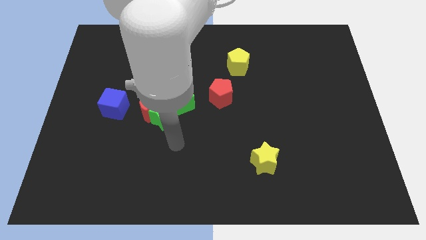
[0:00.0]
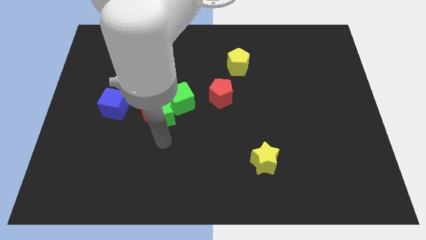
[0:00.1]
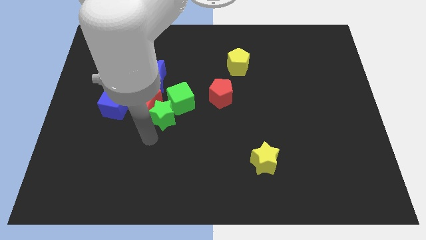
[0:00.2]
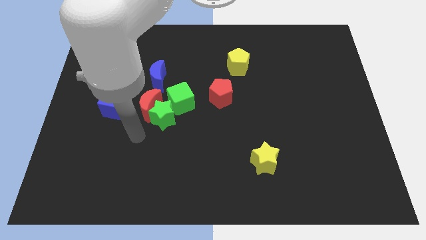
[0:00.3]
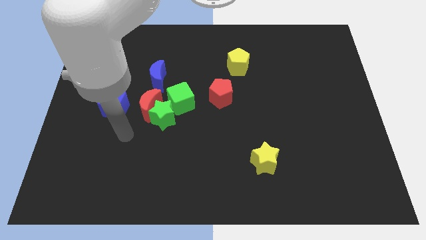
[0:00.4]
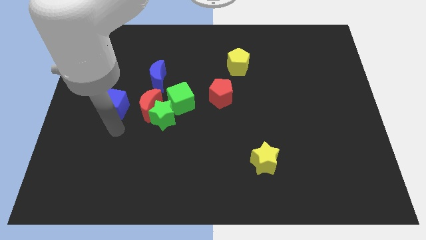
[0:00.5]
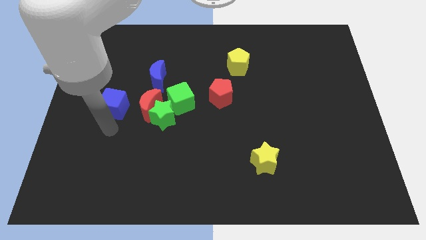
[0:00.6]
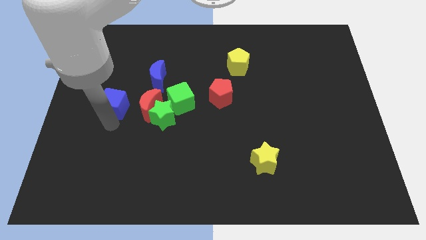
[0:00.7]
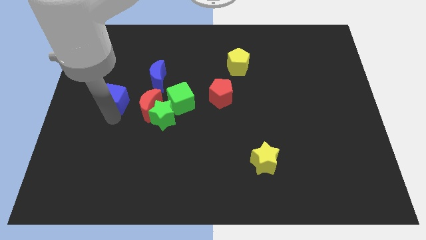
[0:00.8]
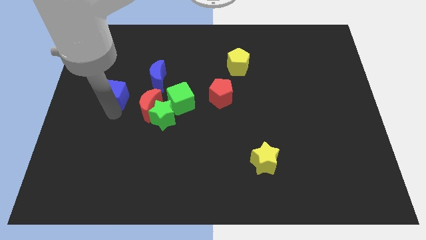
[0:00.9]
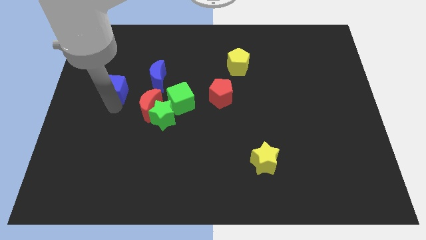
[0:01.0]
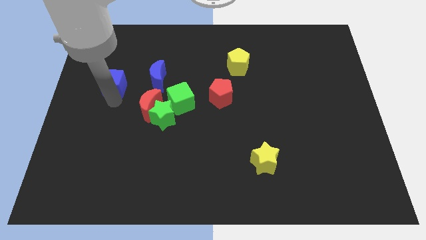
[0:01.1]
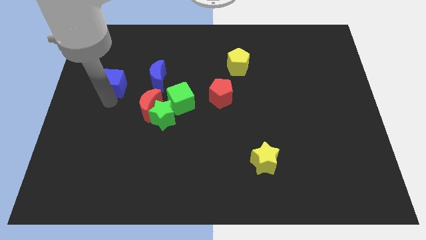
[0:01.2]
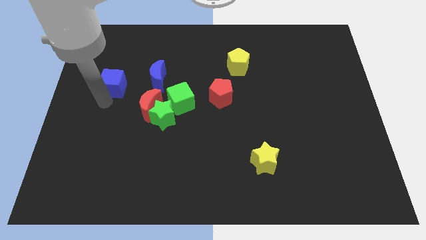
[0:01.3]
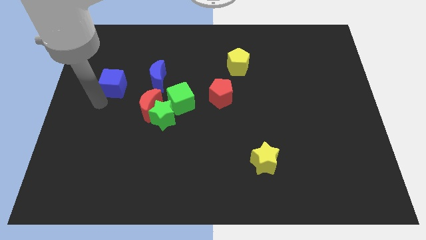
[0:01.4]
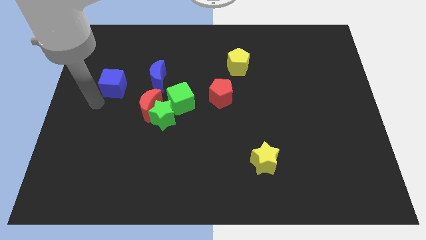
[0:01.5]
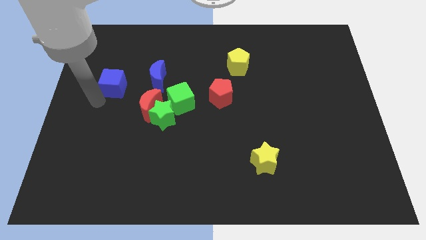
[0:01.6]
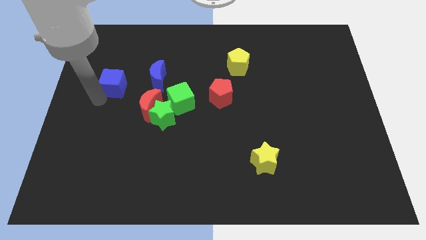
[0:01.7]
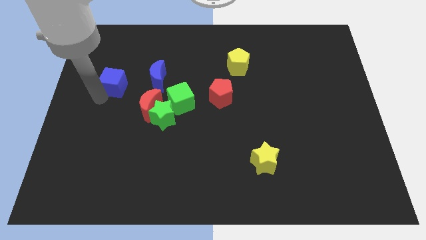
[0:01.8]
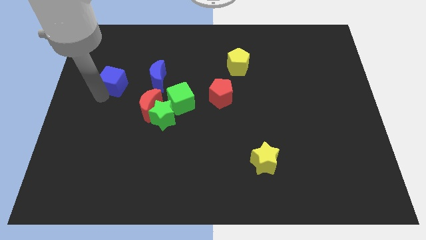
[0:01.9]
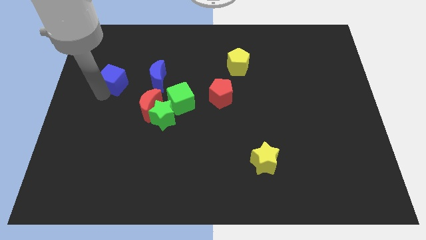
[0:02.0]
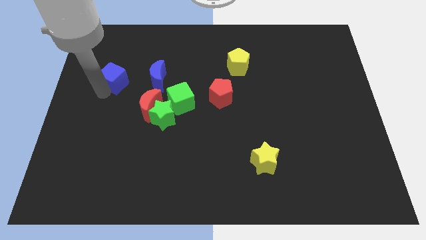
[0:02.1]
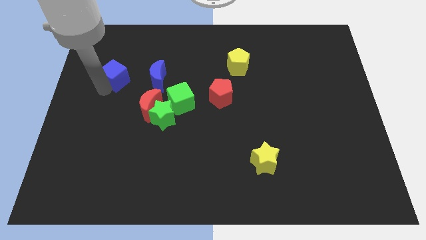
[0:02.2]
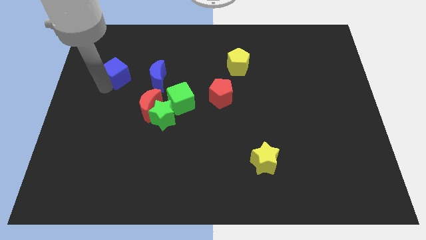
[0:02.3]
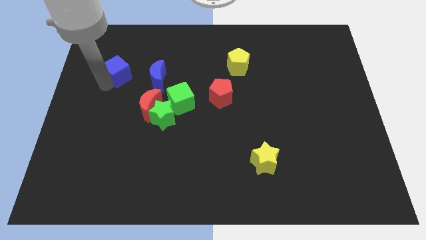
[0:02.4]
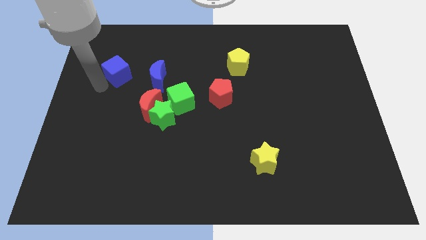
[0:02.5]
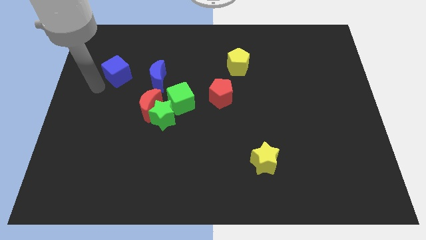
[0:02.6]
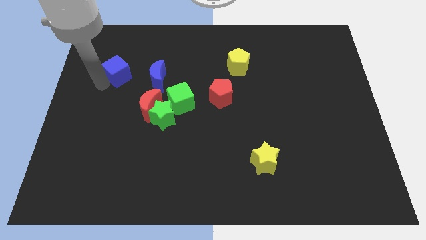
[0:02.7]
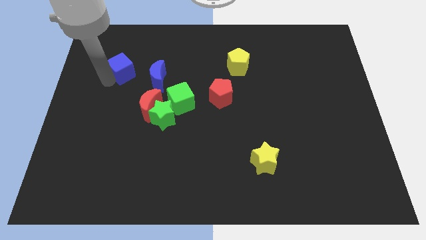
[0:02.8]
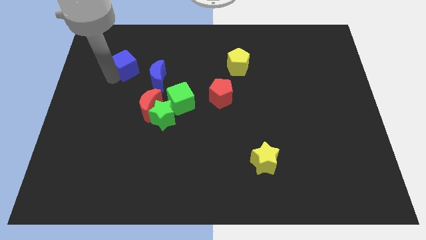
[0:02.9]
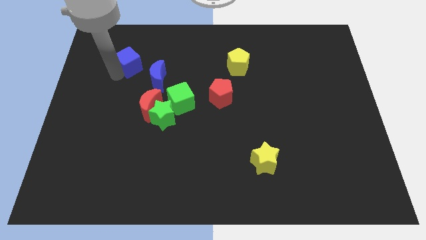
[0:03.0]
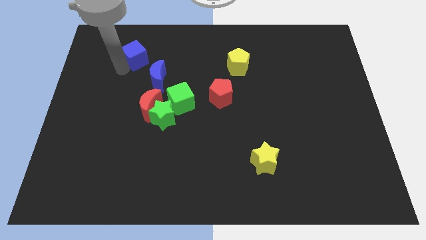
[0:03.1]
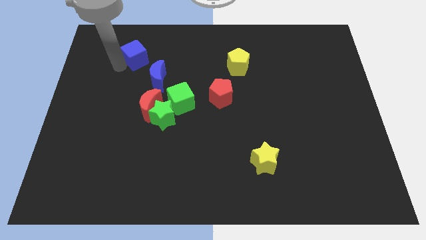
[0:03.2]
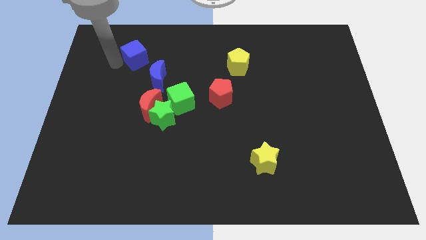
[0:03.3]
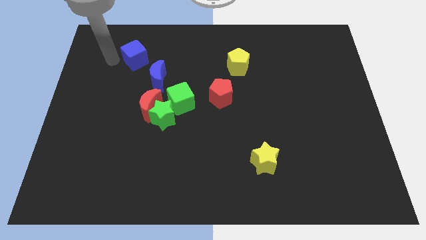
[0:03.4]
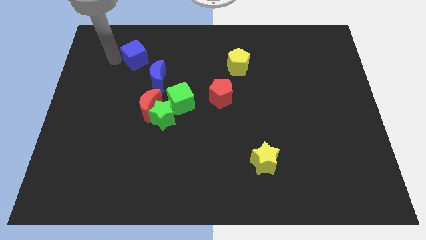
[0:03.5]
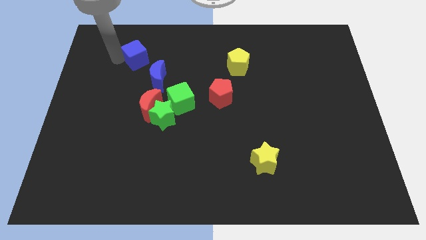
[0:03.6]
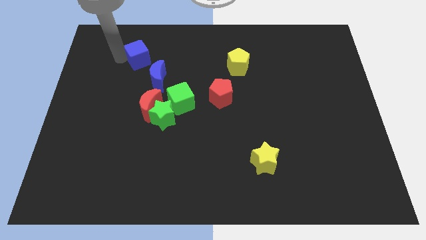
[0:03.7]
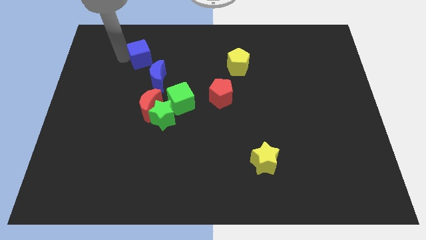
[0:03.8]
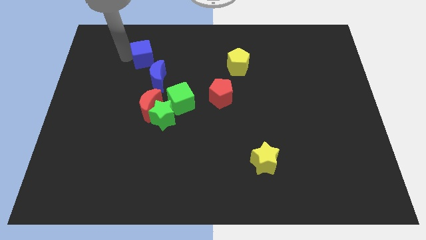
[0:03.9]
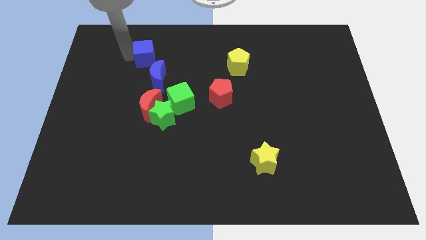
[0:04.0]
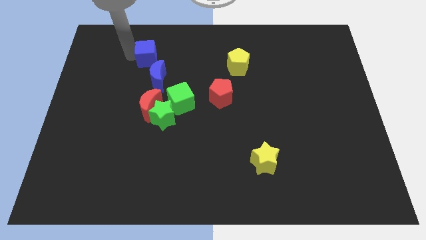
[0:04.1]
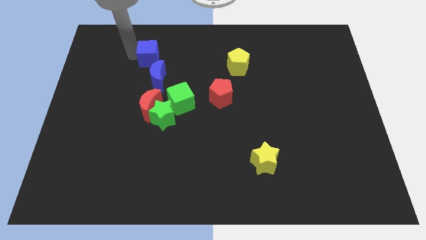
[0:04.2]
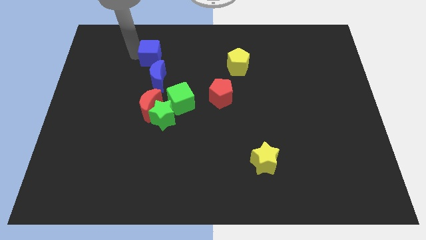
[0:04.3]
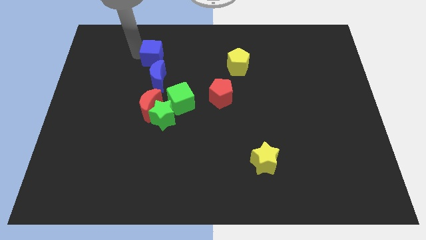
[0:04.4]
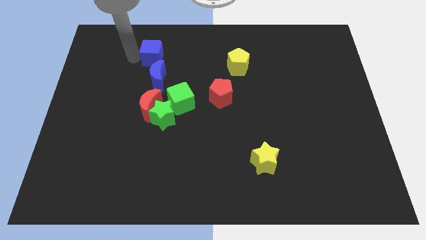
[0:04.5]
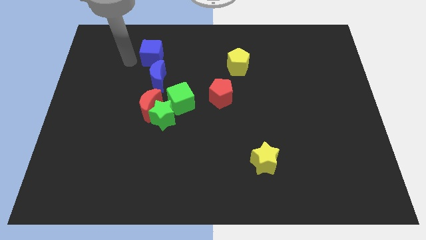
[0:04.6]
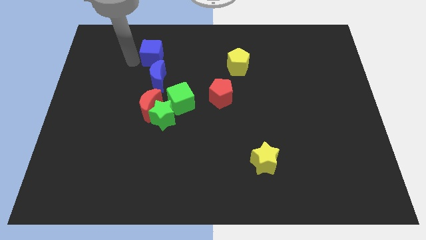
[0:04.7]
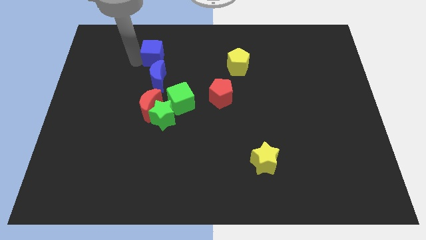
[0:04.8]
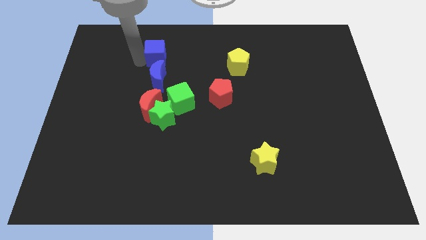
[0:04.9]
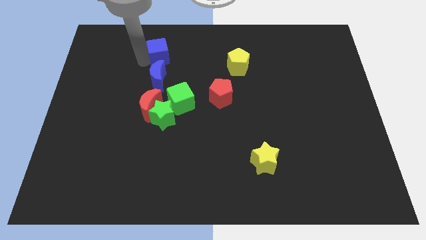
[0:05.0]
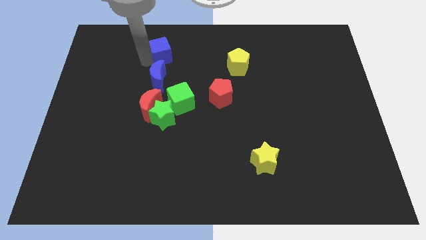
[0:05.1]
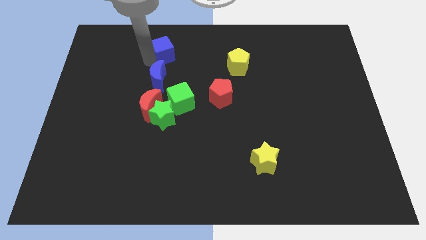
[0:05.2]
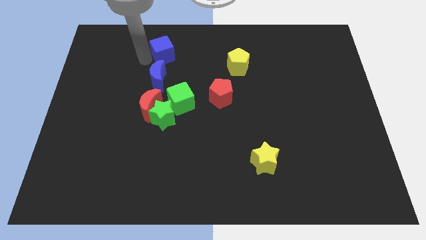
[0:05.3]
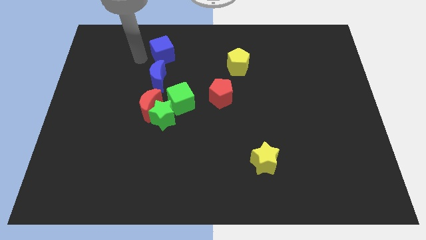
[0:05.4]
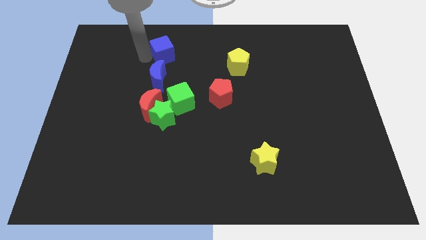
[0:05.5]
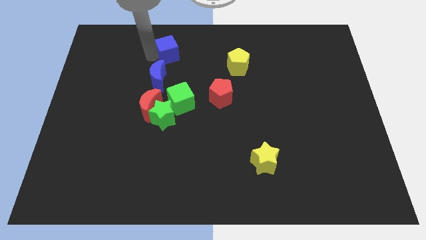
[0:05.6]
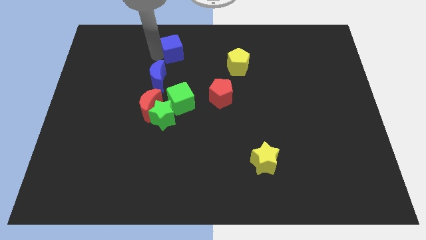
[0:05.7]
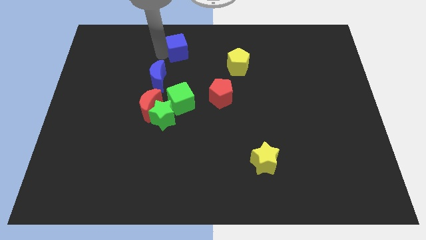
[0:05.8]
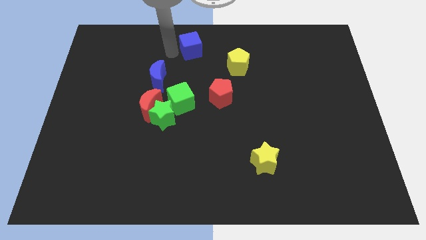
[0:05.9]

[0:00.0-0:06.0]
move the blue cube to the towards your base

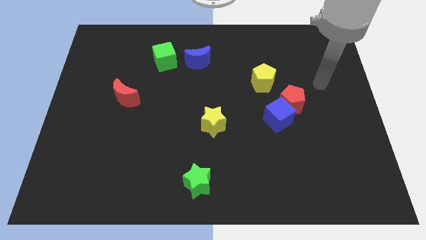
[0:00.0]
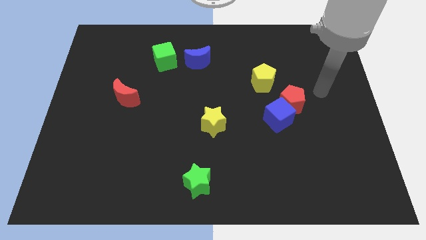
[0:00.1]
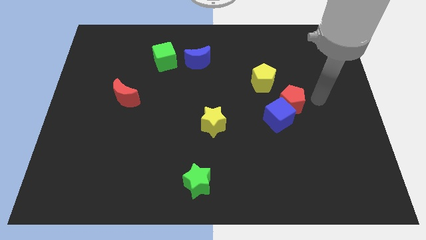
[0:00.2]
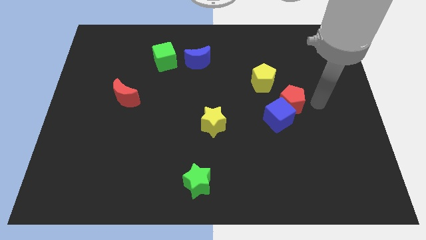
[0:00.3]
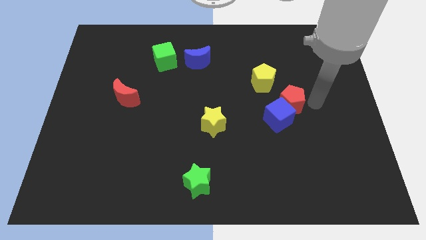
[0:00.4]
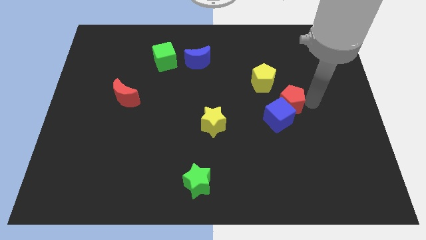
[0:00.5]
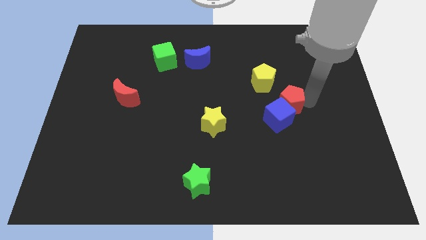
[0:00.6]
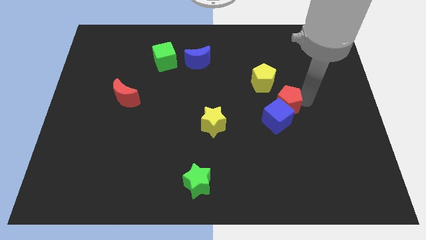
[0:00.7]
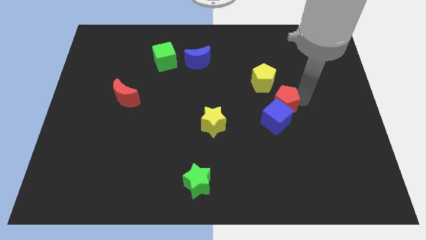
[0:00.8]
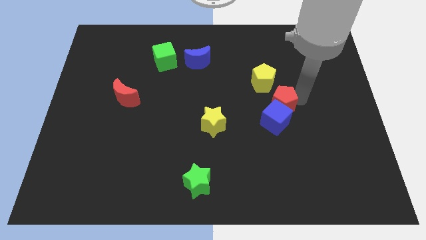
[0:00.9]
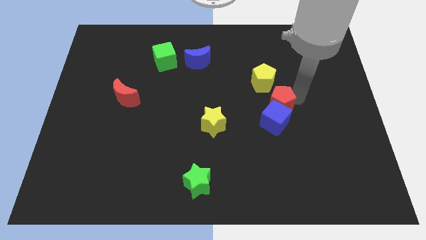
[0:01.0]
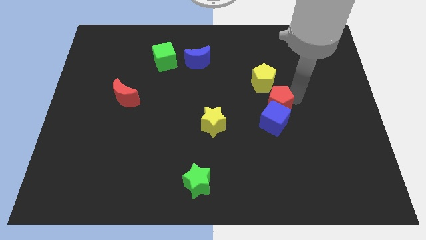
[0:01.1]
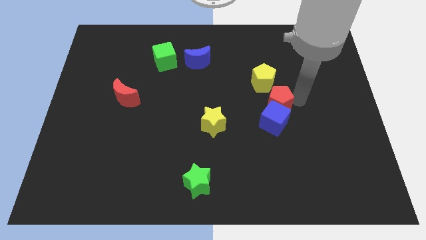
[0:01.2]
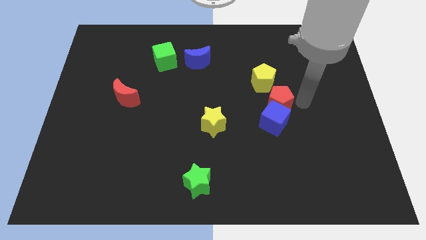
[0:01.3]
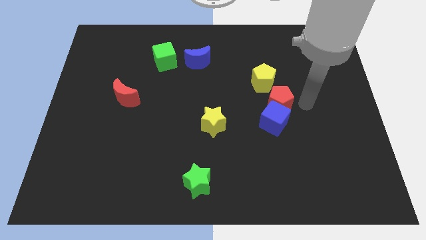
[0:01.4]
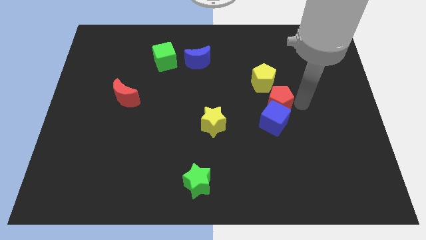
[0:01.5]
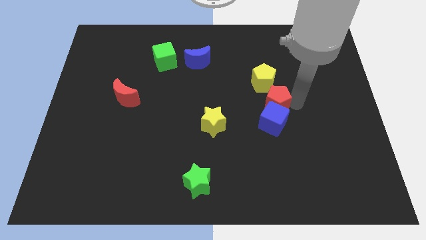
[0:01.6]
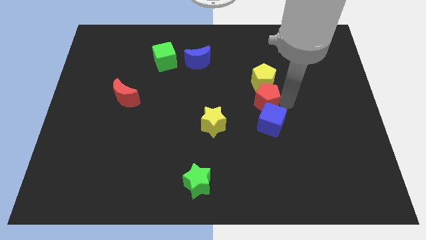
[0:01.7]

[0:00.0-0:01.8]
slide the red pentagon to the center
